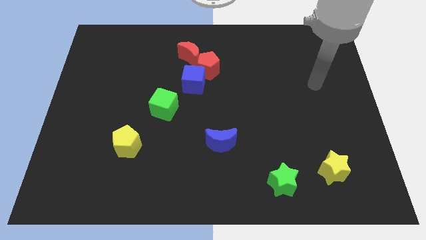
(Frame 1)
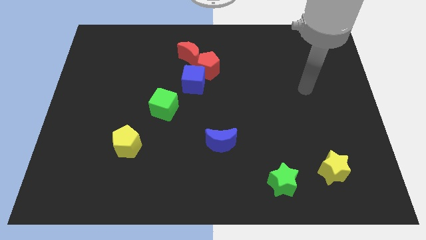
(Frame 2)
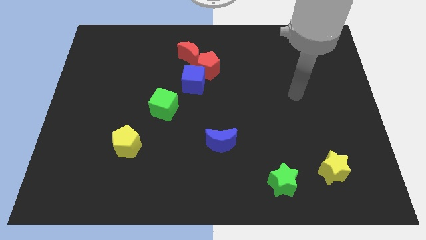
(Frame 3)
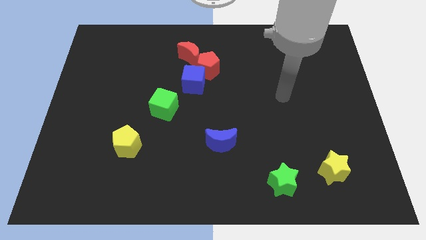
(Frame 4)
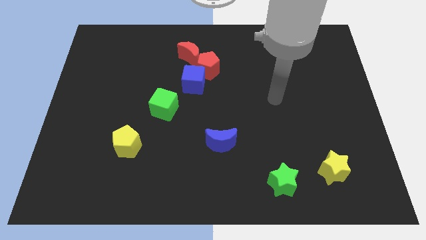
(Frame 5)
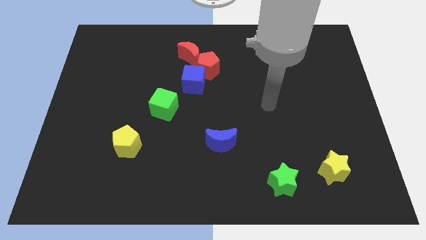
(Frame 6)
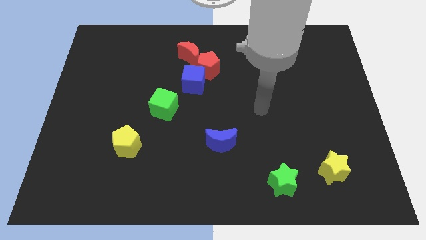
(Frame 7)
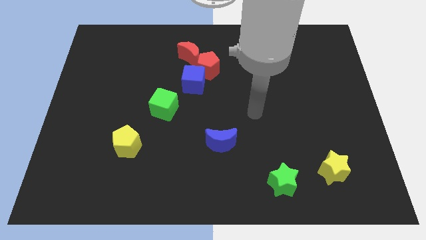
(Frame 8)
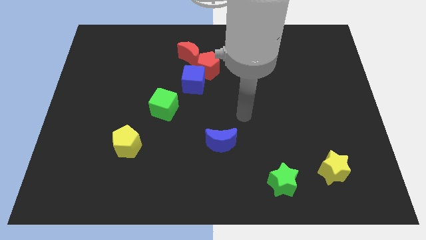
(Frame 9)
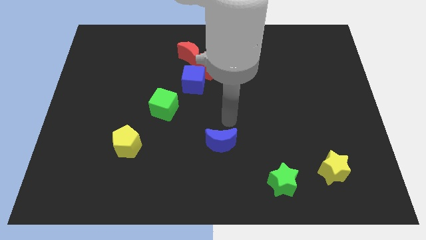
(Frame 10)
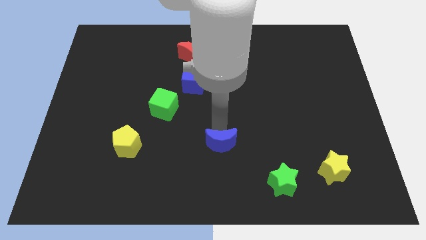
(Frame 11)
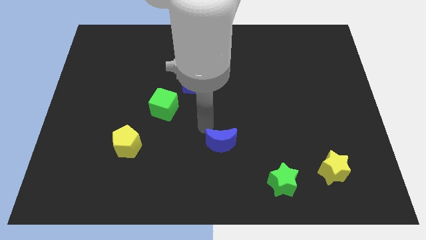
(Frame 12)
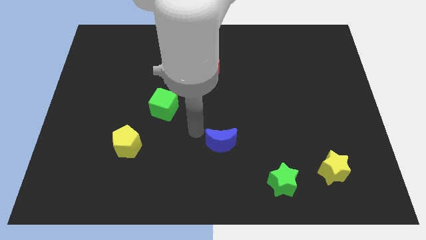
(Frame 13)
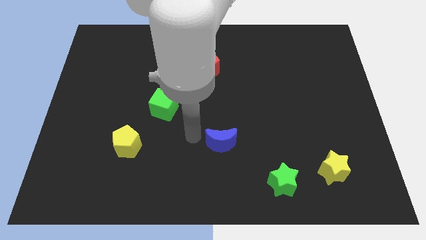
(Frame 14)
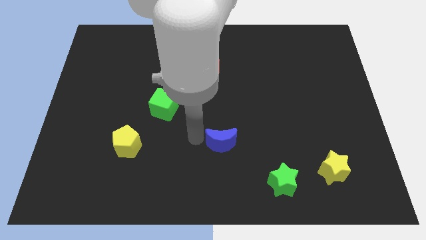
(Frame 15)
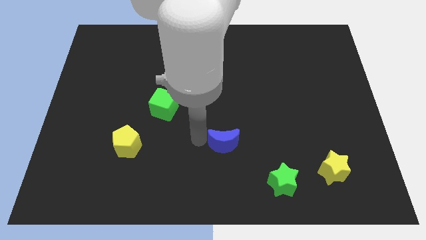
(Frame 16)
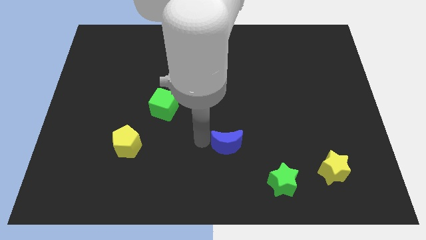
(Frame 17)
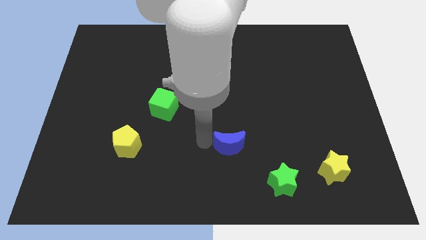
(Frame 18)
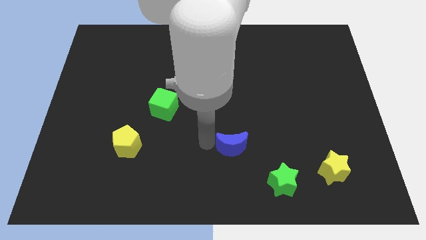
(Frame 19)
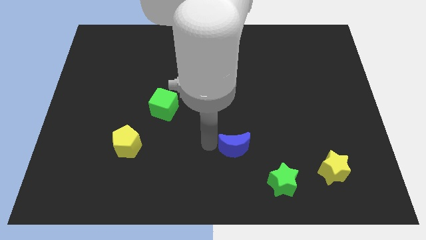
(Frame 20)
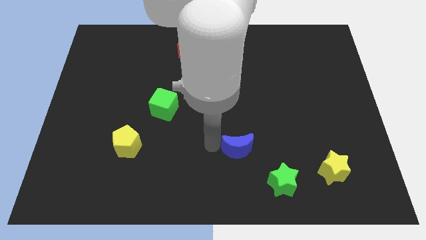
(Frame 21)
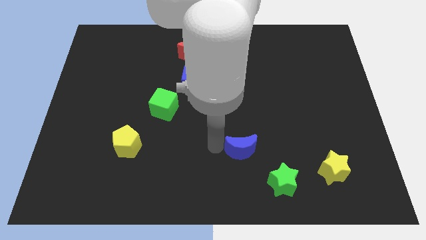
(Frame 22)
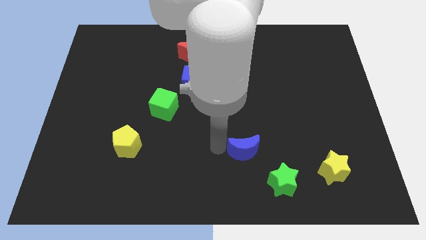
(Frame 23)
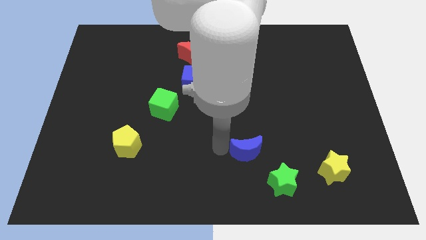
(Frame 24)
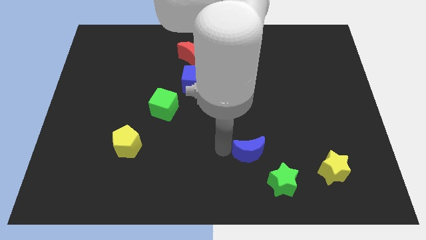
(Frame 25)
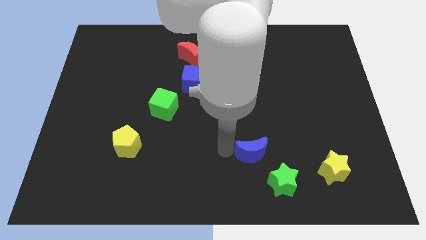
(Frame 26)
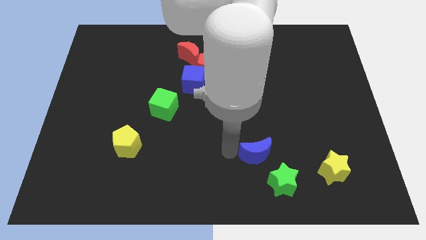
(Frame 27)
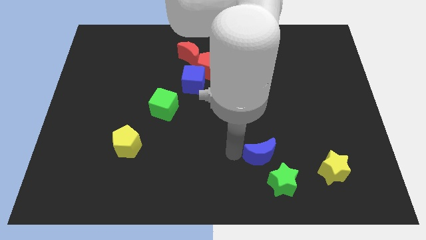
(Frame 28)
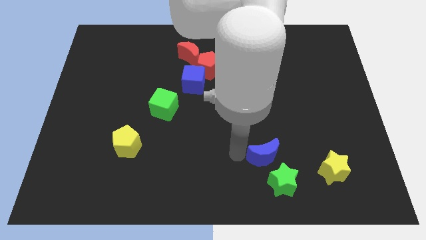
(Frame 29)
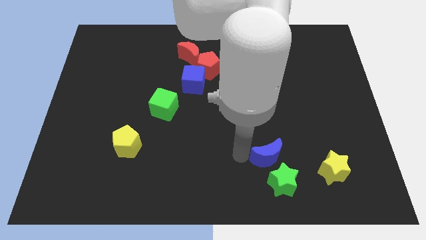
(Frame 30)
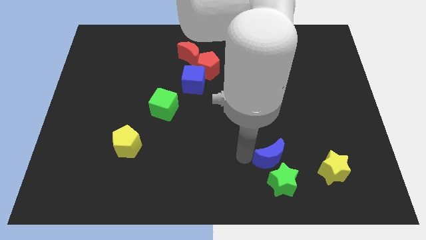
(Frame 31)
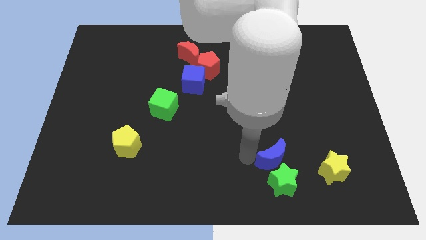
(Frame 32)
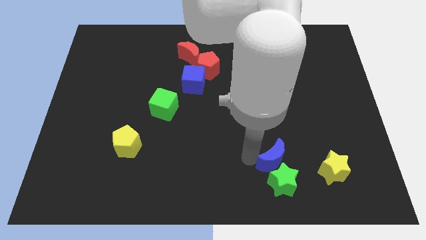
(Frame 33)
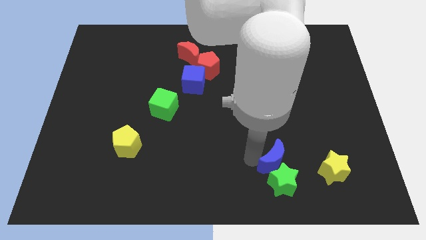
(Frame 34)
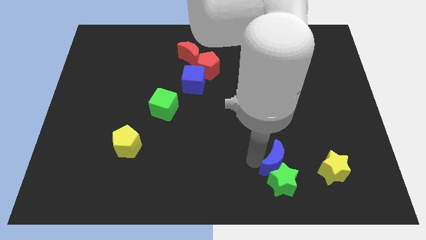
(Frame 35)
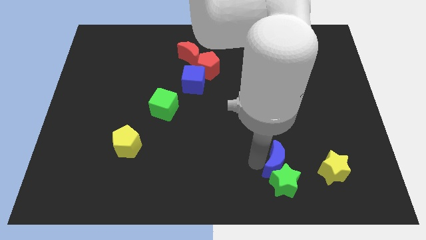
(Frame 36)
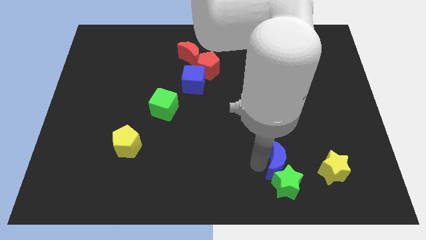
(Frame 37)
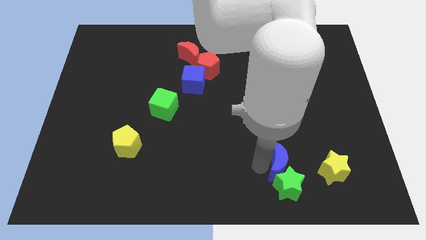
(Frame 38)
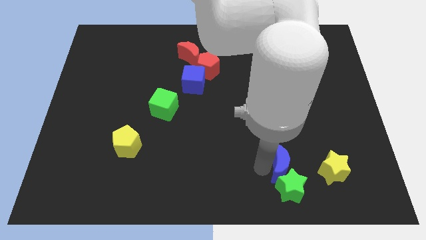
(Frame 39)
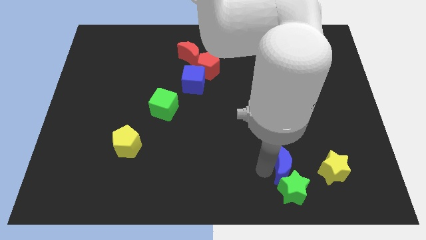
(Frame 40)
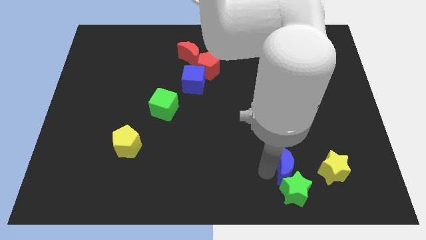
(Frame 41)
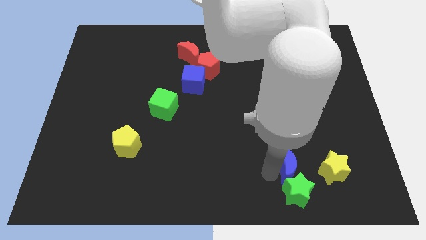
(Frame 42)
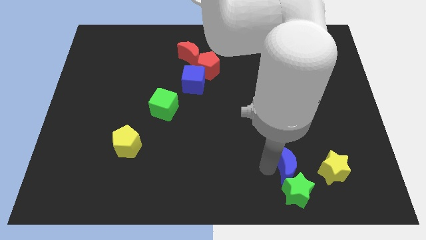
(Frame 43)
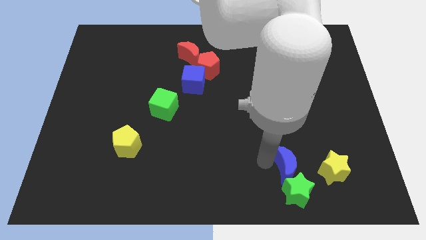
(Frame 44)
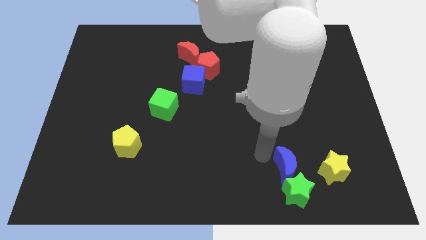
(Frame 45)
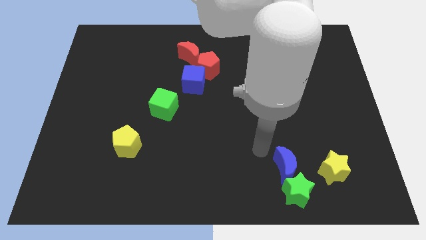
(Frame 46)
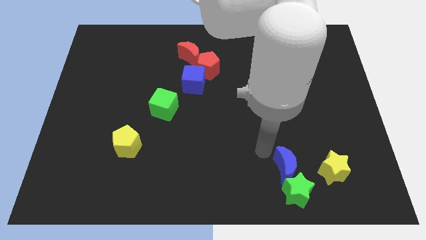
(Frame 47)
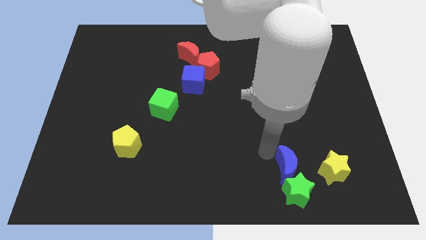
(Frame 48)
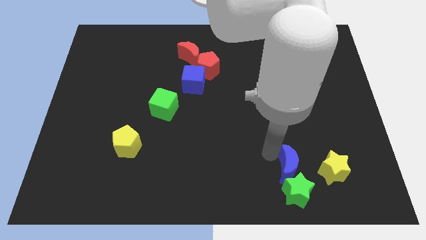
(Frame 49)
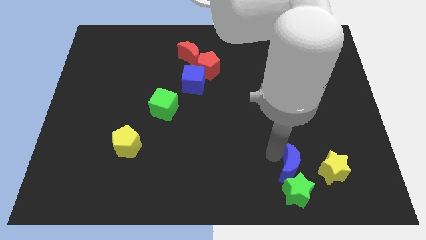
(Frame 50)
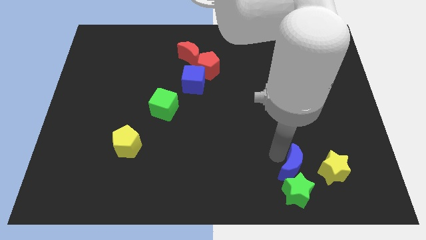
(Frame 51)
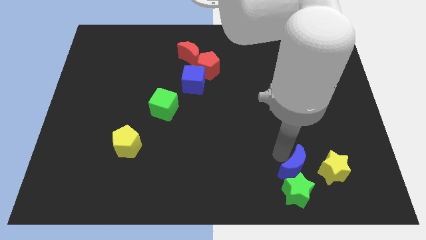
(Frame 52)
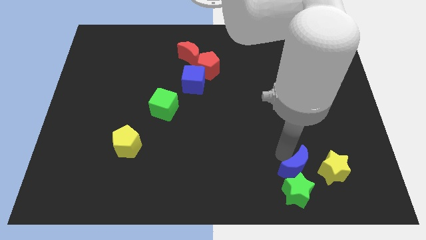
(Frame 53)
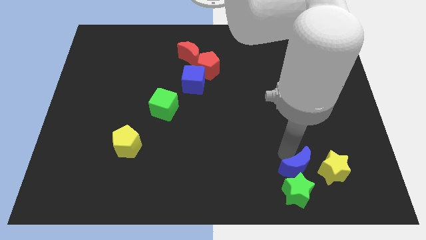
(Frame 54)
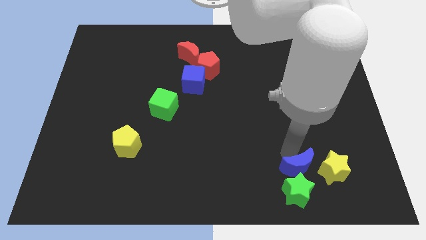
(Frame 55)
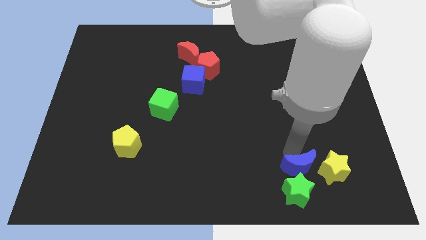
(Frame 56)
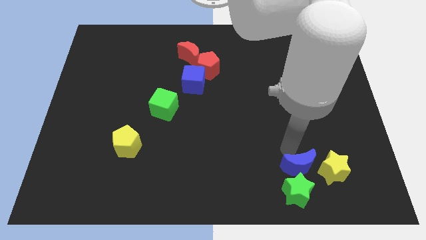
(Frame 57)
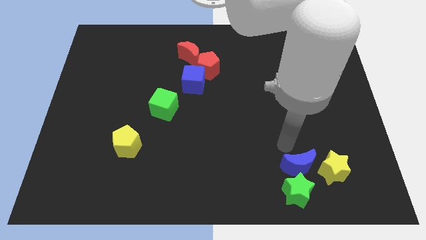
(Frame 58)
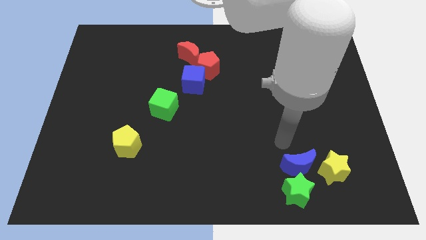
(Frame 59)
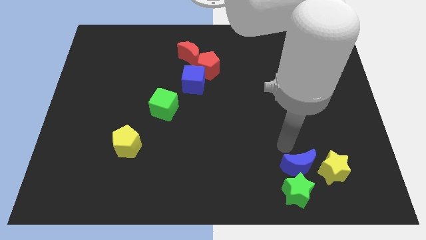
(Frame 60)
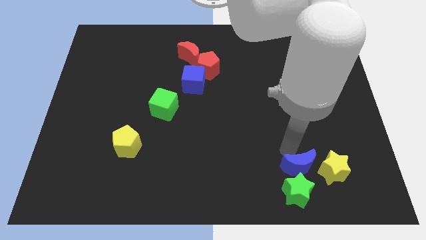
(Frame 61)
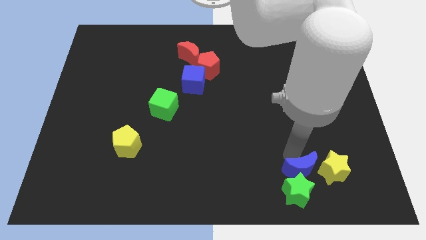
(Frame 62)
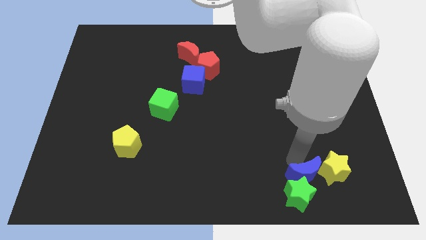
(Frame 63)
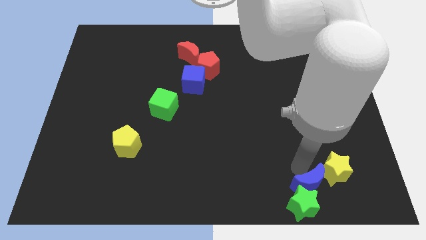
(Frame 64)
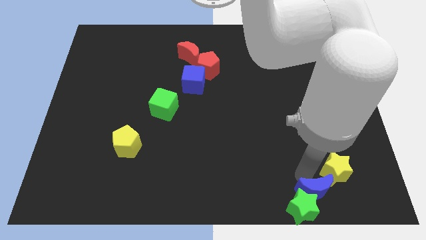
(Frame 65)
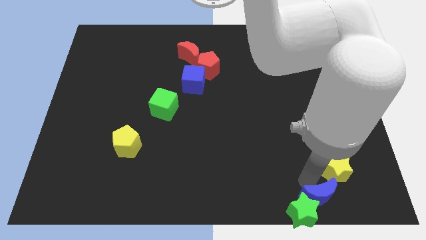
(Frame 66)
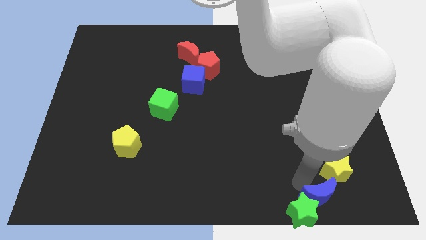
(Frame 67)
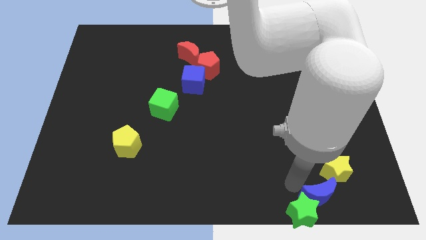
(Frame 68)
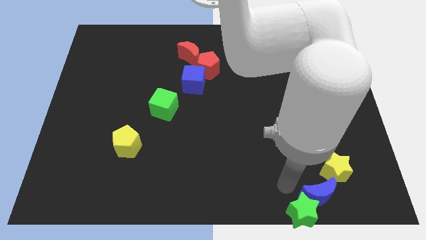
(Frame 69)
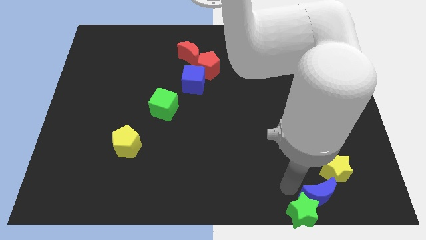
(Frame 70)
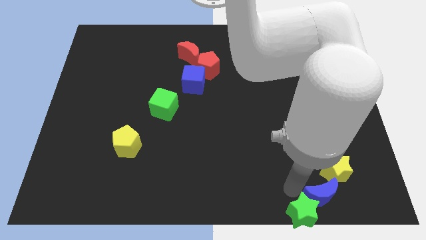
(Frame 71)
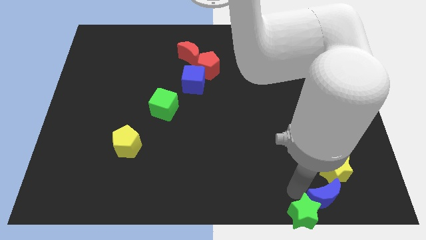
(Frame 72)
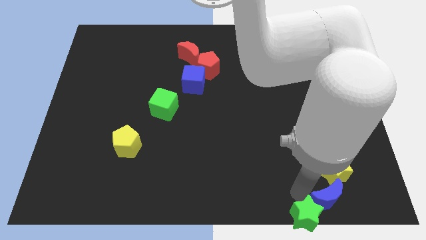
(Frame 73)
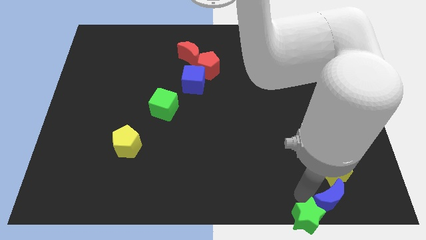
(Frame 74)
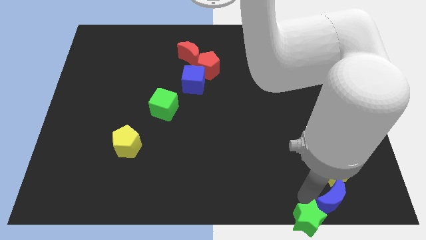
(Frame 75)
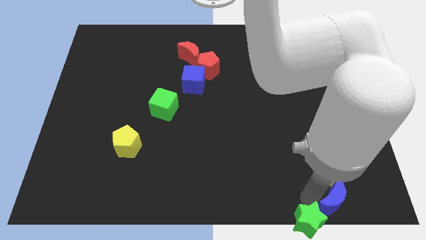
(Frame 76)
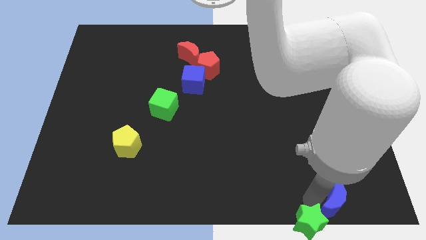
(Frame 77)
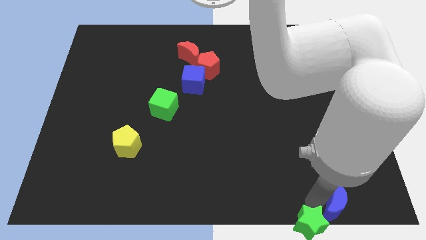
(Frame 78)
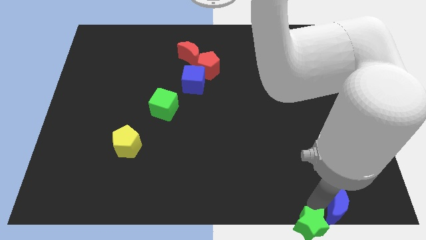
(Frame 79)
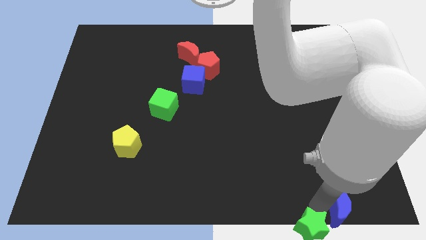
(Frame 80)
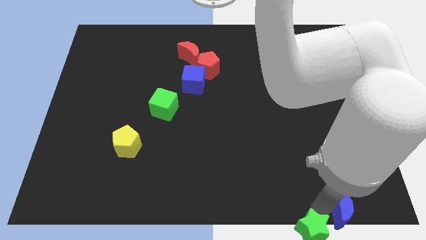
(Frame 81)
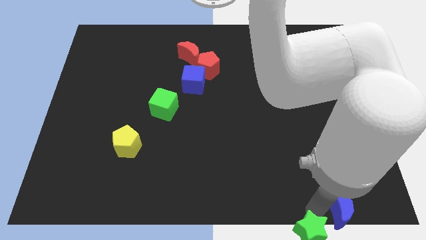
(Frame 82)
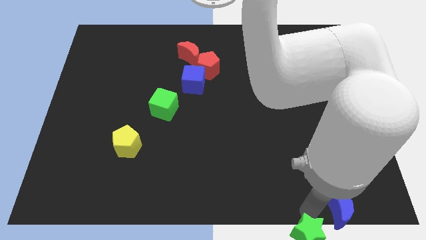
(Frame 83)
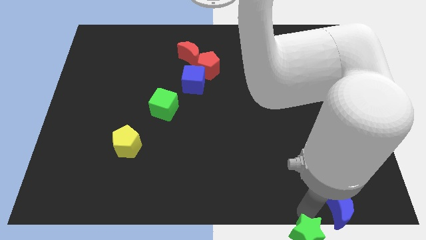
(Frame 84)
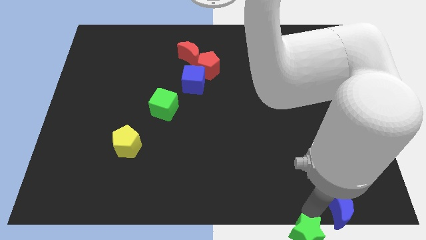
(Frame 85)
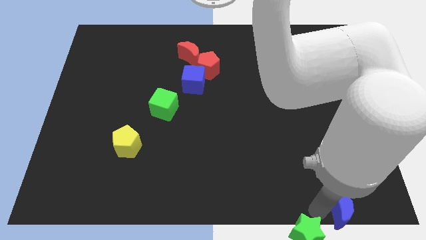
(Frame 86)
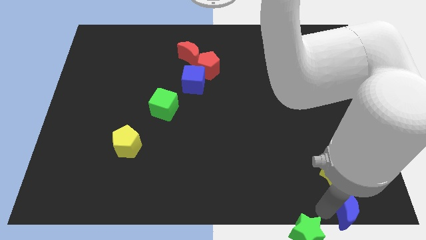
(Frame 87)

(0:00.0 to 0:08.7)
move the blue moon to the lower right corner
